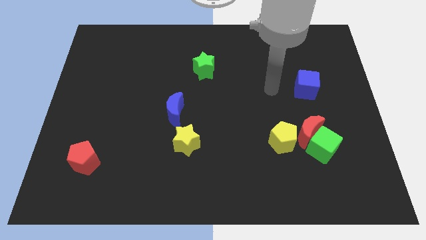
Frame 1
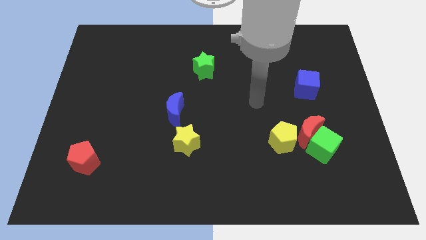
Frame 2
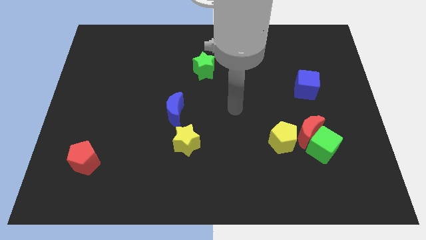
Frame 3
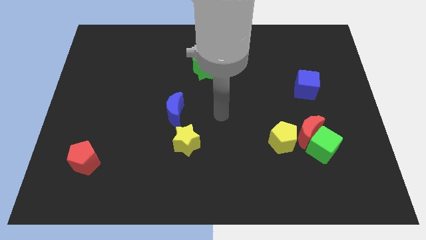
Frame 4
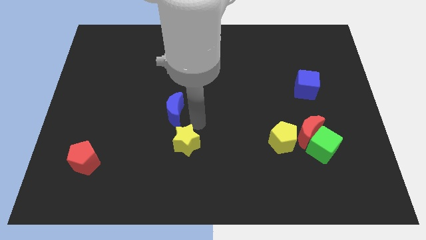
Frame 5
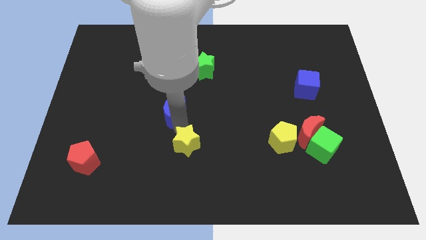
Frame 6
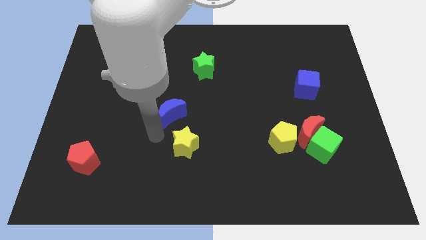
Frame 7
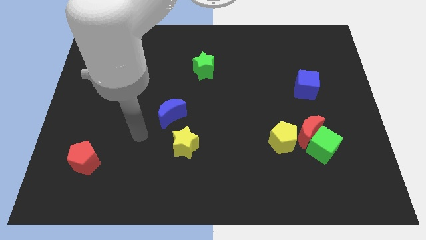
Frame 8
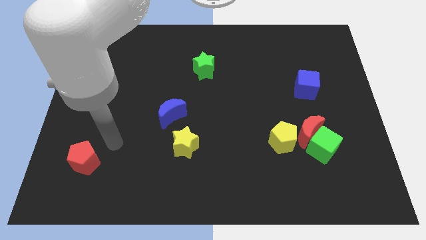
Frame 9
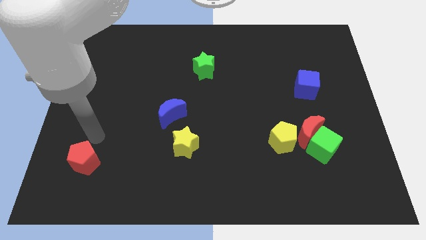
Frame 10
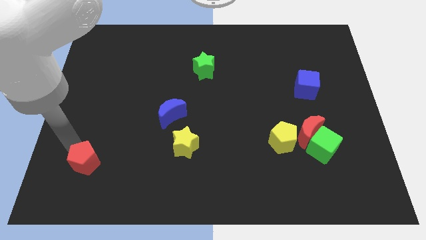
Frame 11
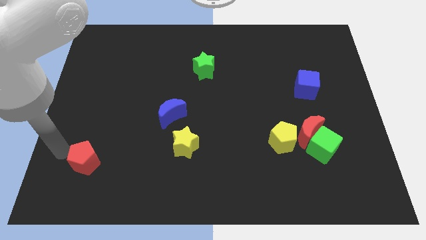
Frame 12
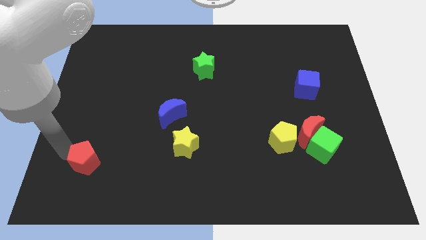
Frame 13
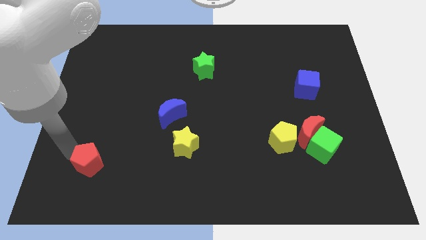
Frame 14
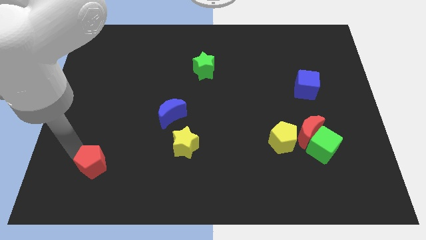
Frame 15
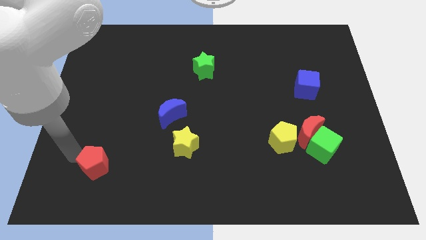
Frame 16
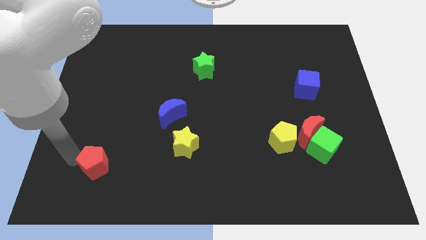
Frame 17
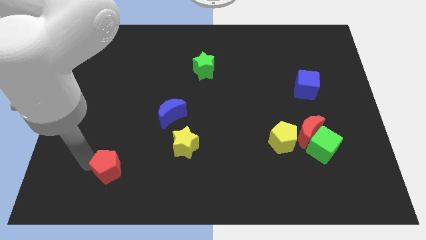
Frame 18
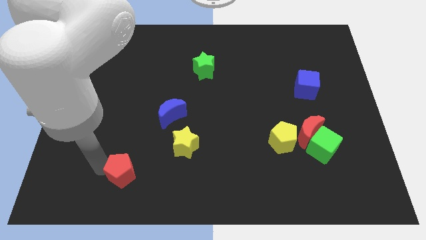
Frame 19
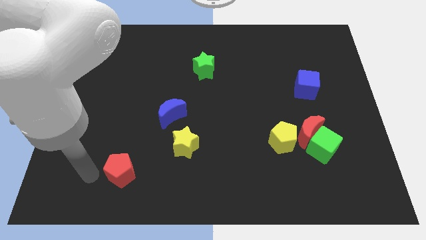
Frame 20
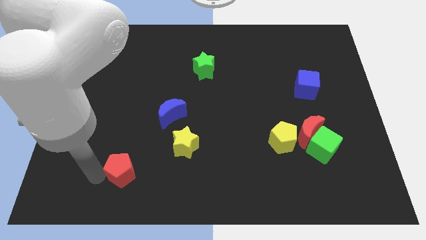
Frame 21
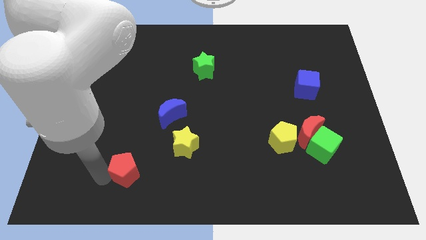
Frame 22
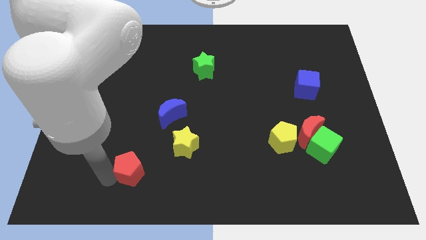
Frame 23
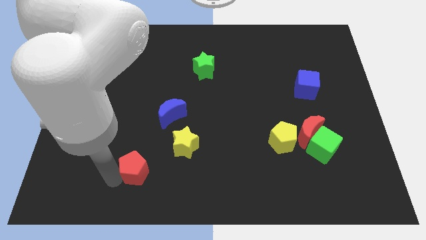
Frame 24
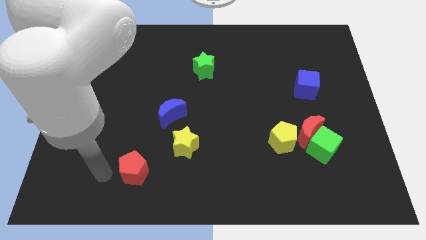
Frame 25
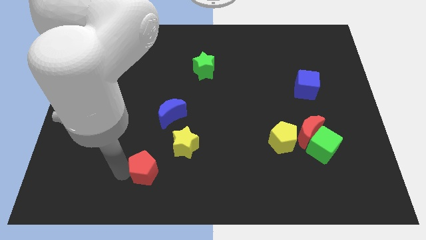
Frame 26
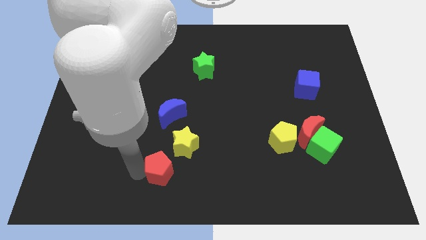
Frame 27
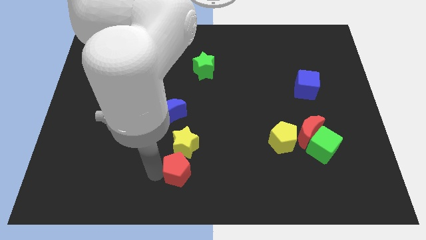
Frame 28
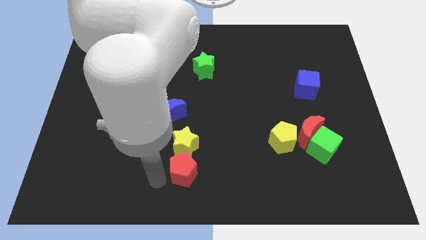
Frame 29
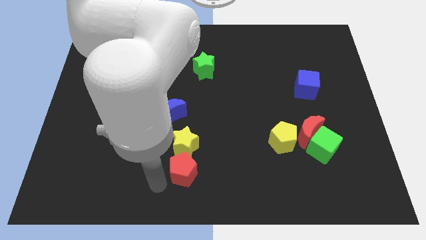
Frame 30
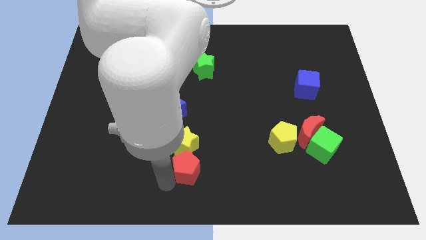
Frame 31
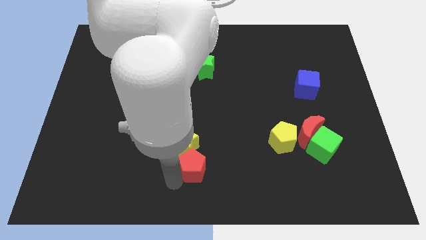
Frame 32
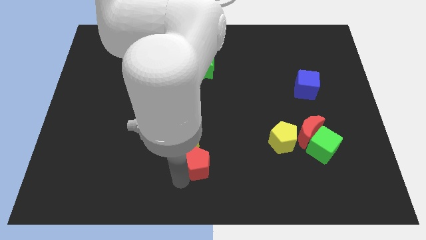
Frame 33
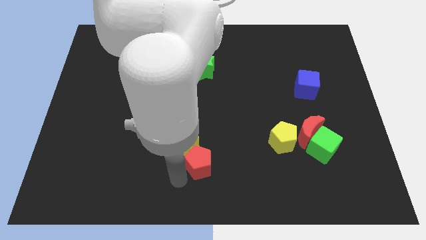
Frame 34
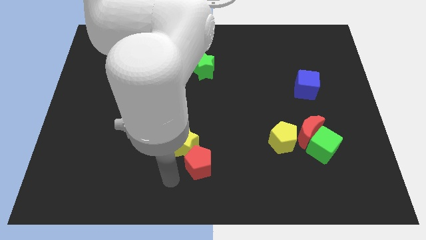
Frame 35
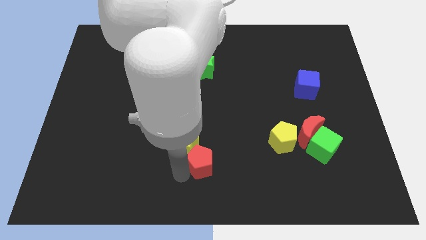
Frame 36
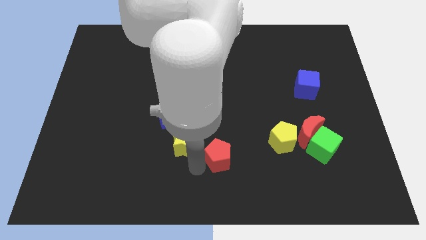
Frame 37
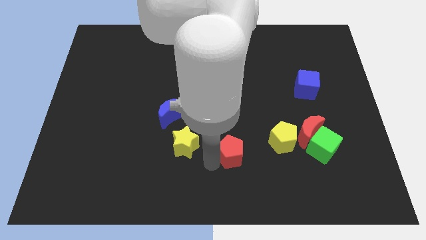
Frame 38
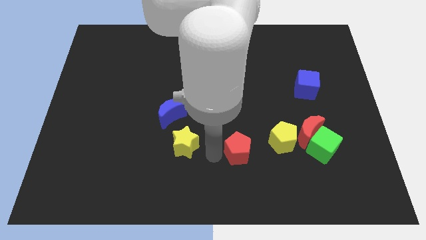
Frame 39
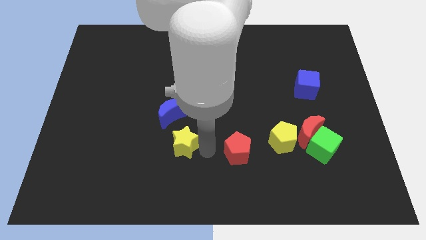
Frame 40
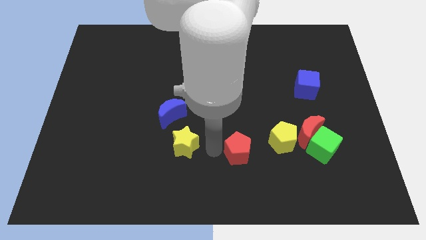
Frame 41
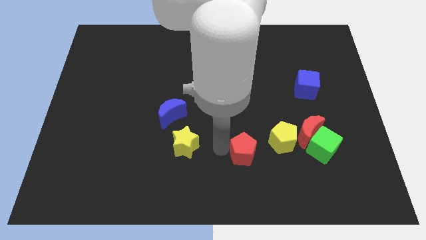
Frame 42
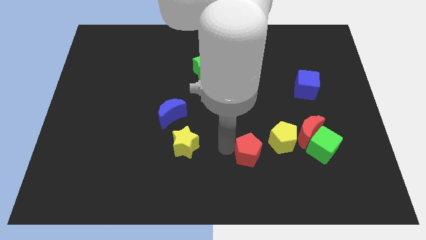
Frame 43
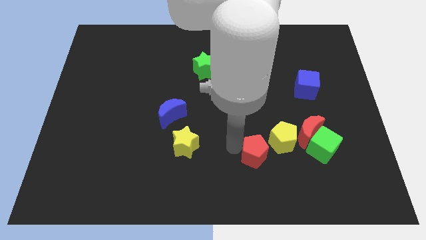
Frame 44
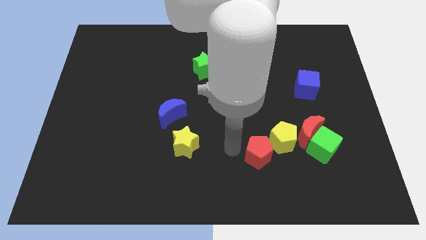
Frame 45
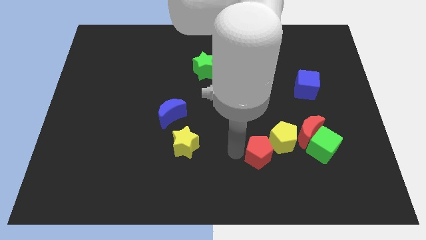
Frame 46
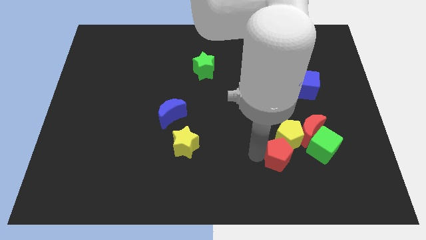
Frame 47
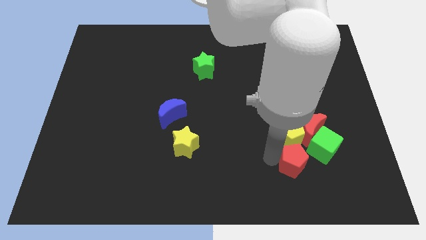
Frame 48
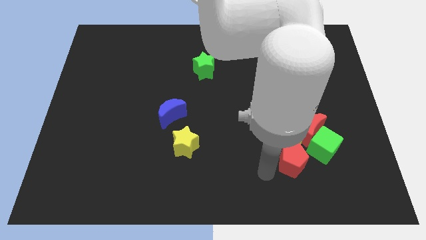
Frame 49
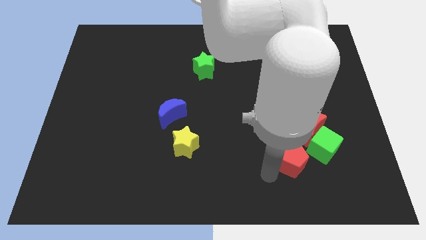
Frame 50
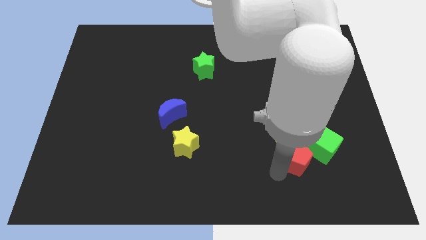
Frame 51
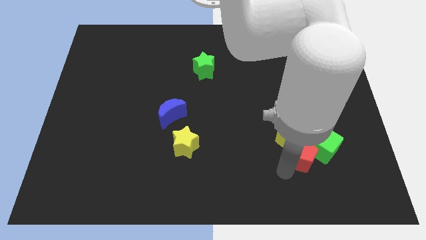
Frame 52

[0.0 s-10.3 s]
slide the red pentagon next to the green cube

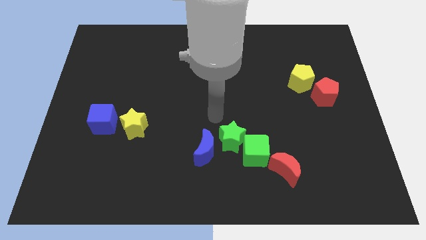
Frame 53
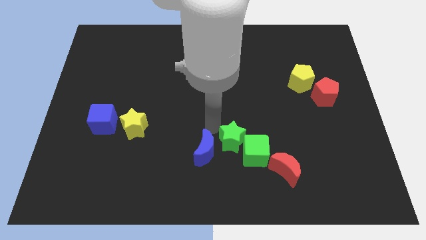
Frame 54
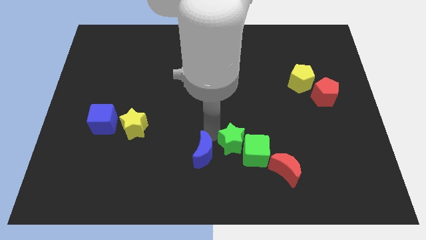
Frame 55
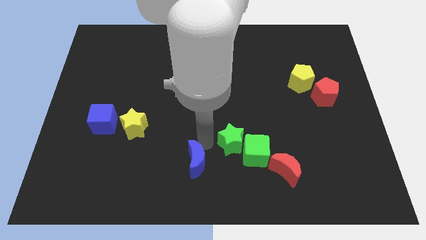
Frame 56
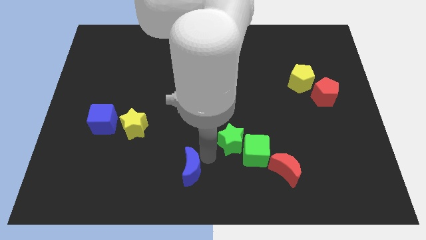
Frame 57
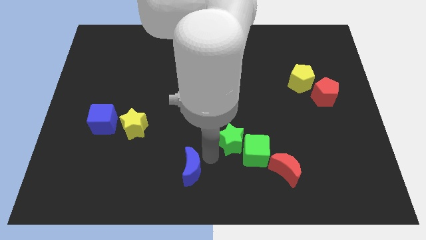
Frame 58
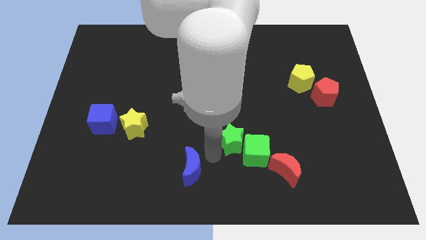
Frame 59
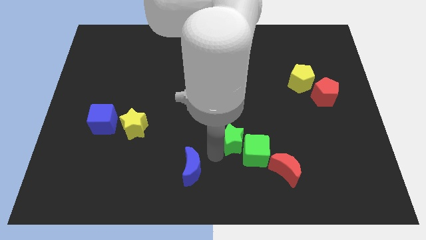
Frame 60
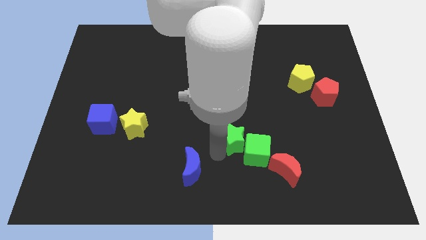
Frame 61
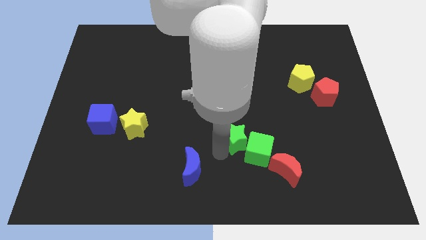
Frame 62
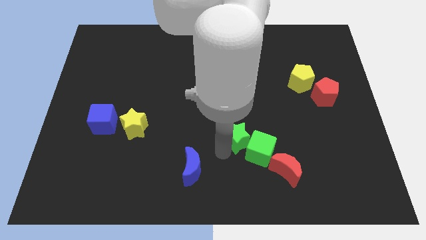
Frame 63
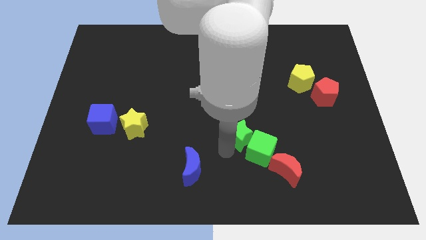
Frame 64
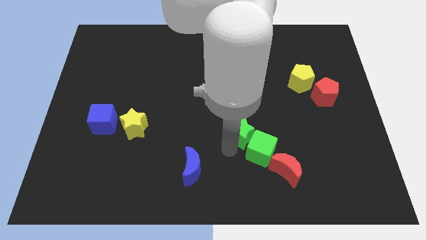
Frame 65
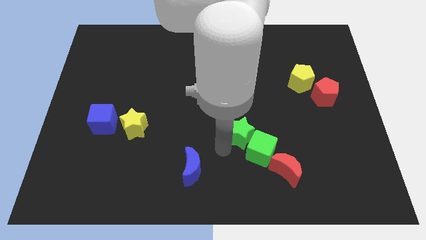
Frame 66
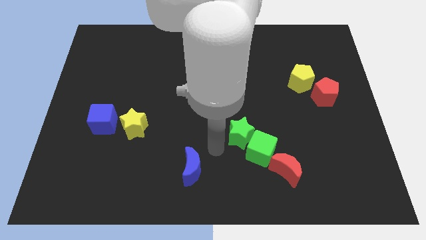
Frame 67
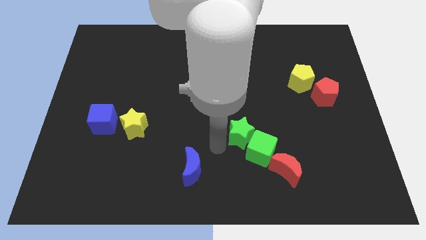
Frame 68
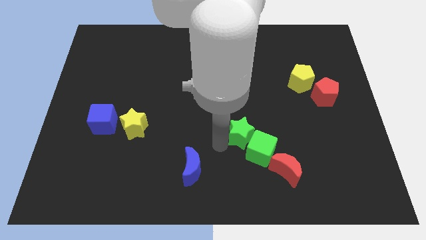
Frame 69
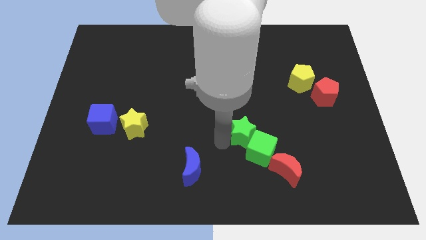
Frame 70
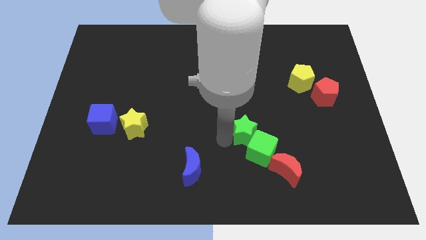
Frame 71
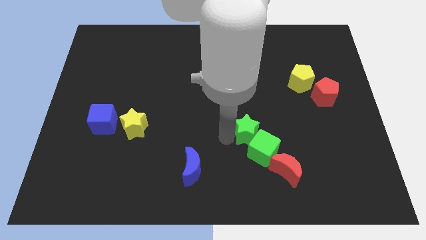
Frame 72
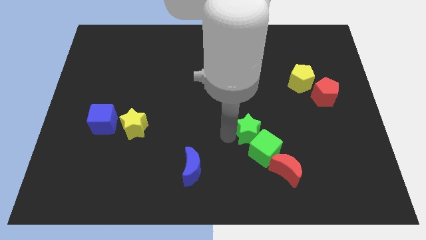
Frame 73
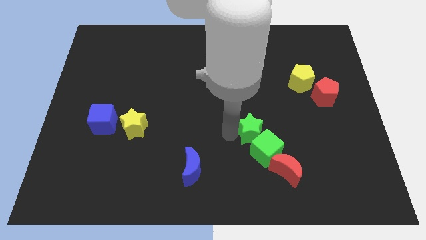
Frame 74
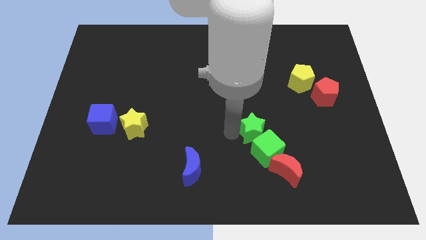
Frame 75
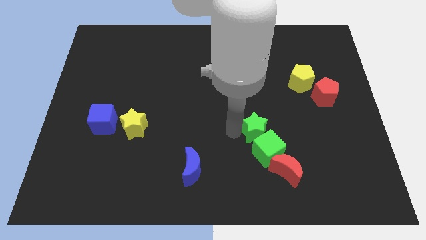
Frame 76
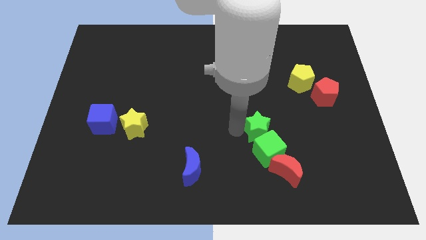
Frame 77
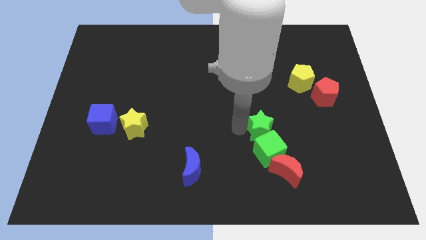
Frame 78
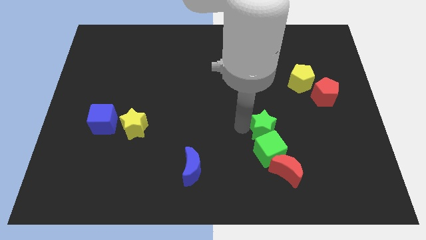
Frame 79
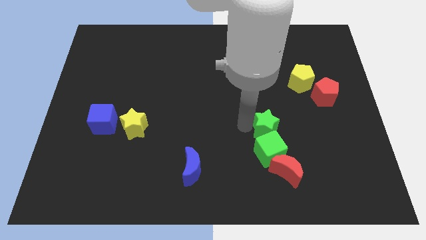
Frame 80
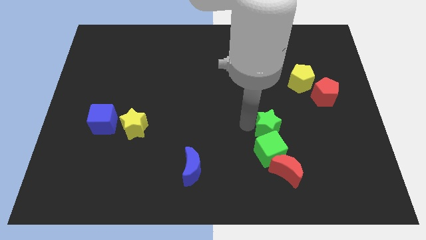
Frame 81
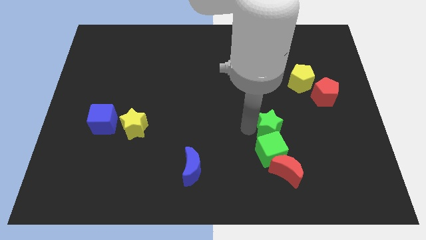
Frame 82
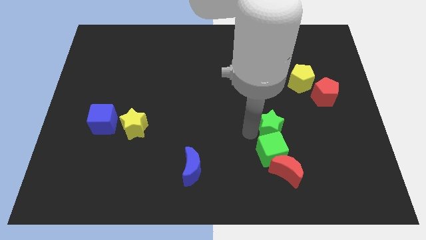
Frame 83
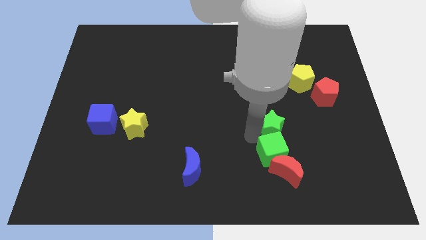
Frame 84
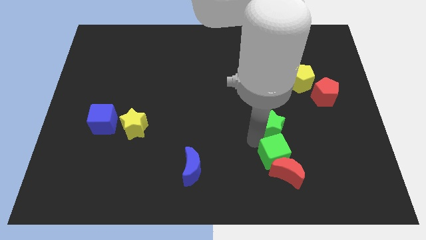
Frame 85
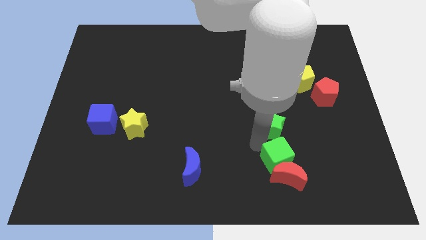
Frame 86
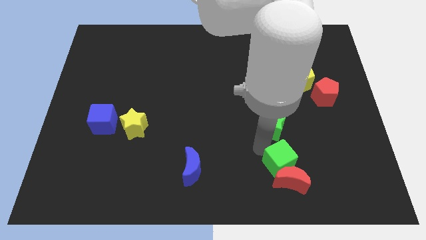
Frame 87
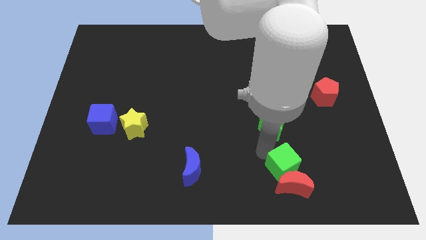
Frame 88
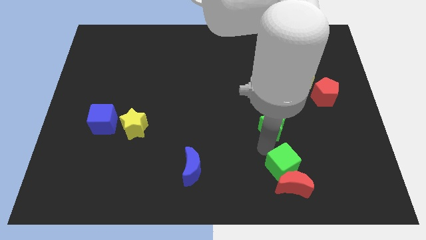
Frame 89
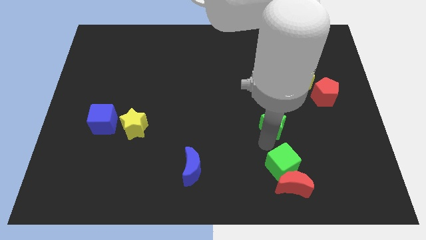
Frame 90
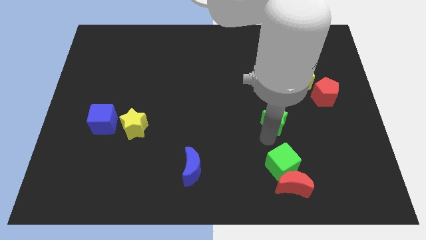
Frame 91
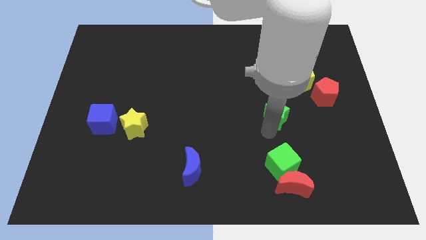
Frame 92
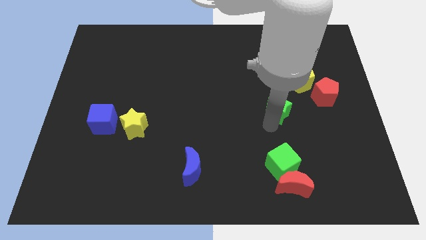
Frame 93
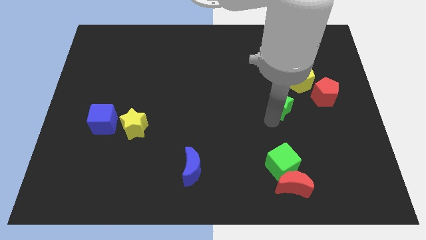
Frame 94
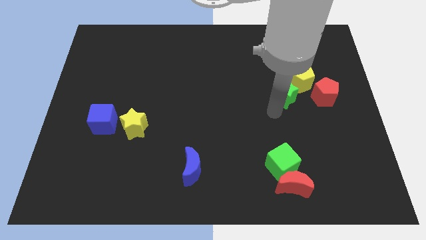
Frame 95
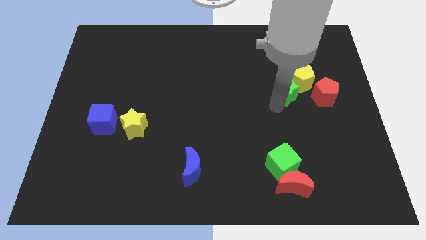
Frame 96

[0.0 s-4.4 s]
push the green star towards the yellow pentagon
